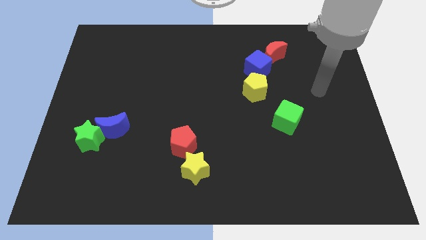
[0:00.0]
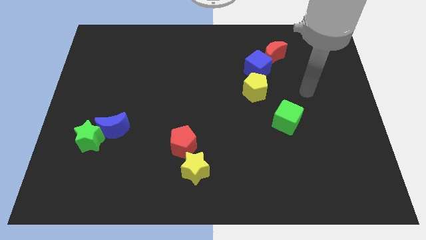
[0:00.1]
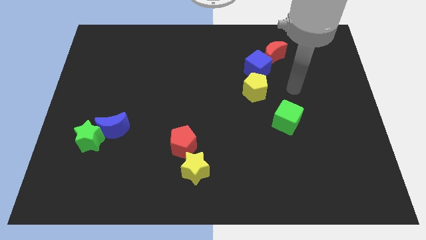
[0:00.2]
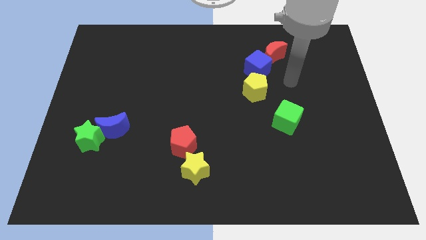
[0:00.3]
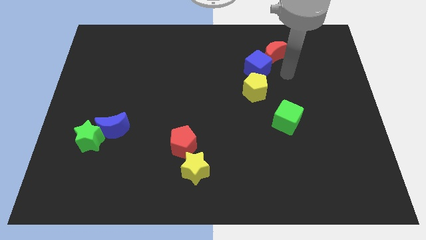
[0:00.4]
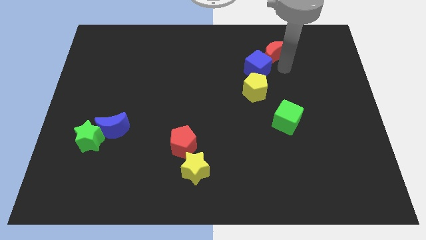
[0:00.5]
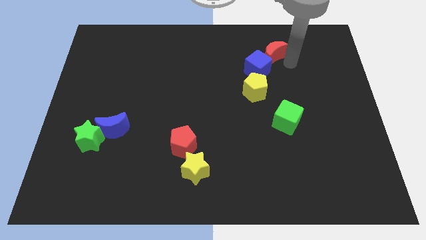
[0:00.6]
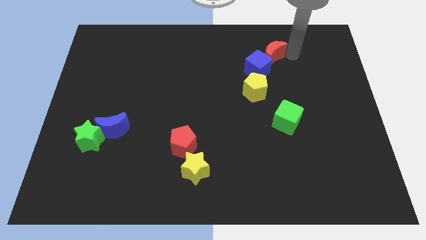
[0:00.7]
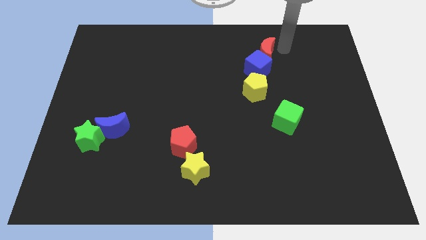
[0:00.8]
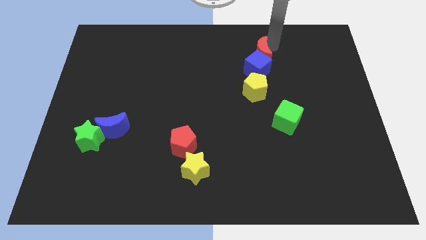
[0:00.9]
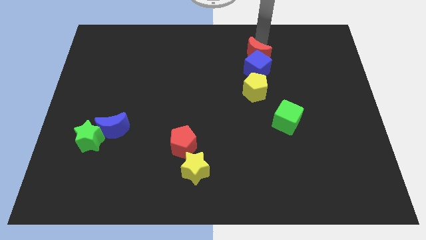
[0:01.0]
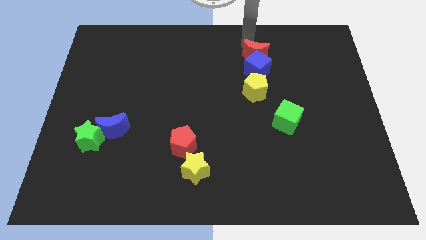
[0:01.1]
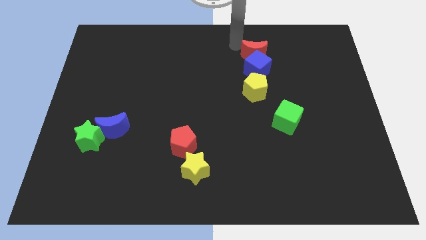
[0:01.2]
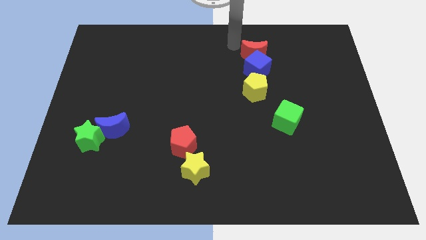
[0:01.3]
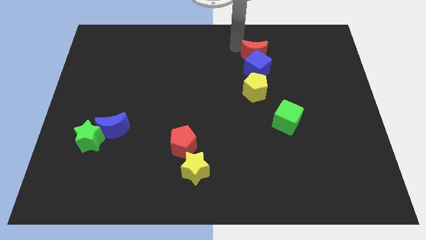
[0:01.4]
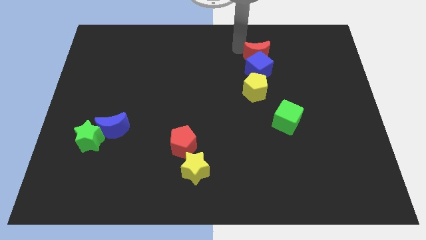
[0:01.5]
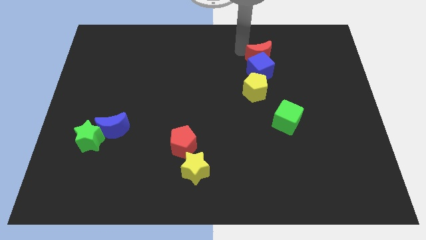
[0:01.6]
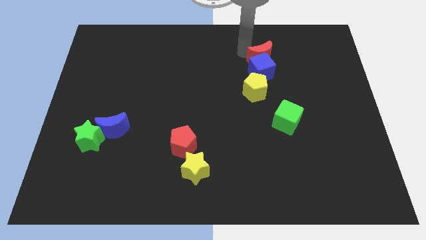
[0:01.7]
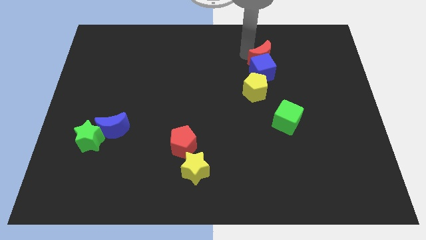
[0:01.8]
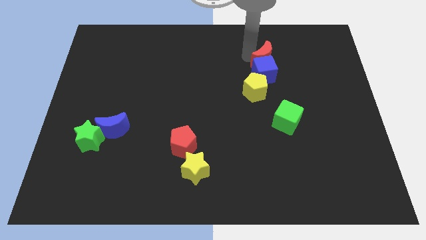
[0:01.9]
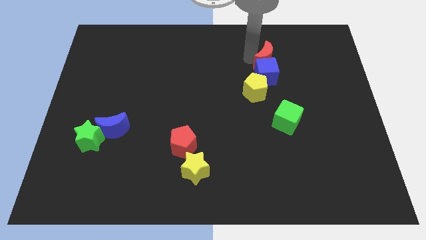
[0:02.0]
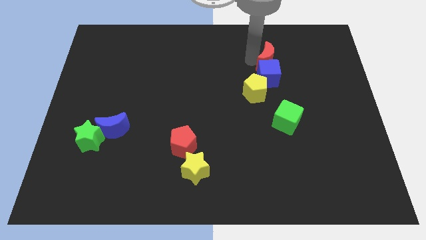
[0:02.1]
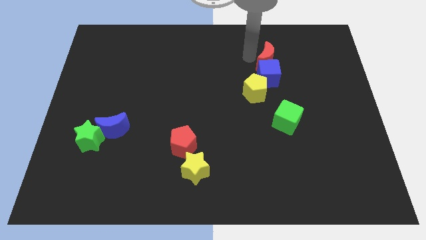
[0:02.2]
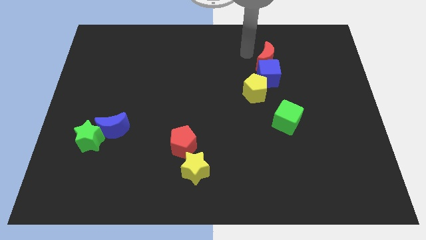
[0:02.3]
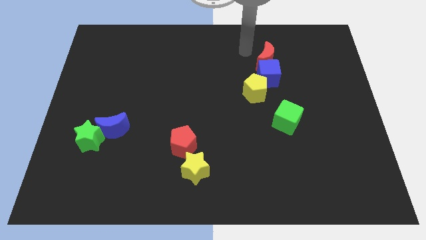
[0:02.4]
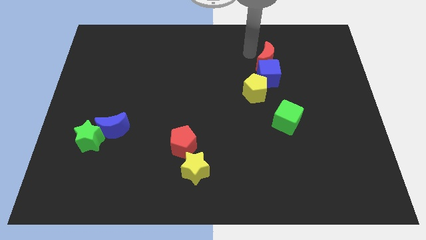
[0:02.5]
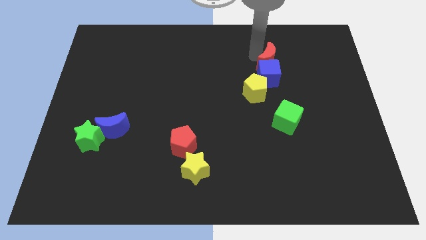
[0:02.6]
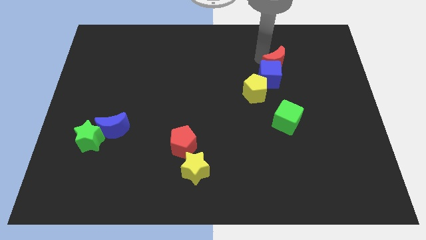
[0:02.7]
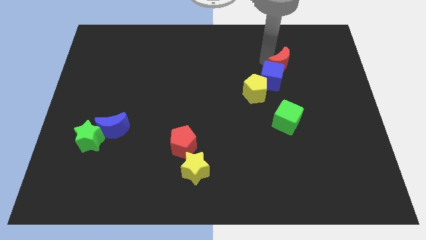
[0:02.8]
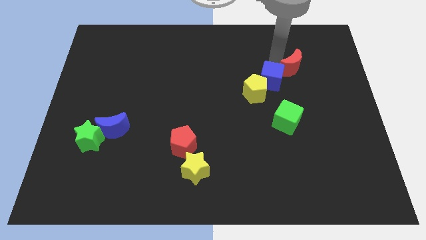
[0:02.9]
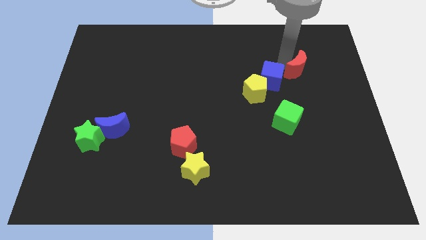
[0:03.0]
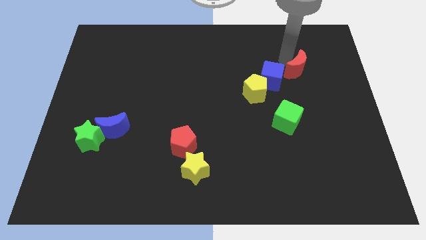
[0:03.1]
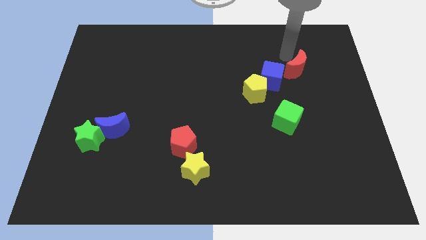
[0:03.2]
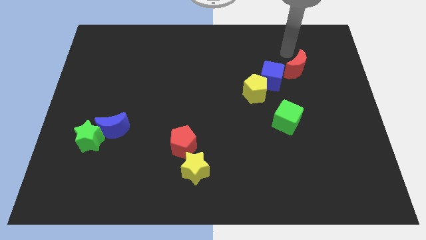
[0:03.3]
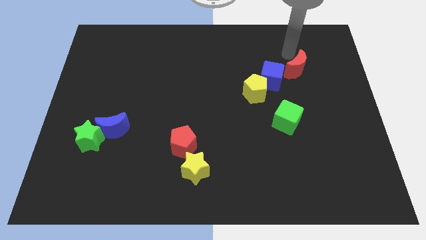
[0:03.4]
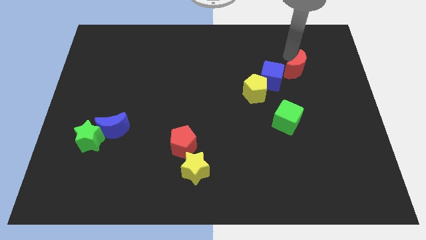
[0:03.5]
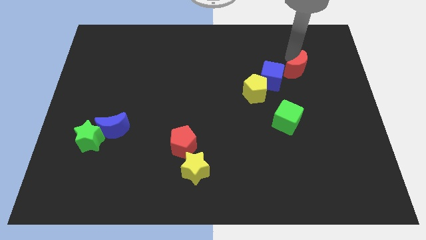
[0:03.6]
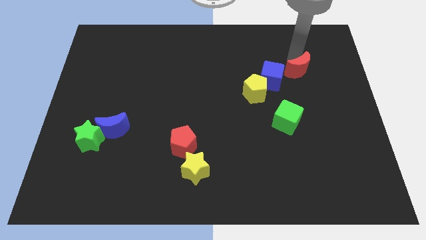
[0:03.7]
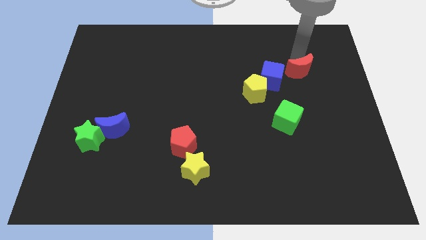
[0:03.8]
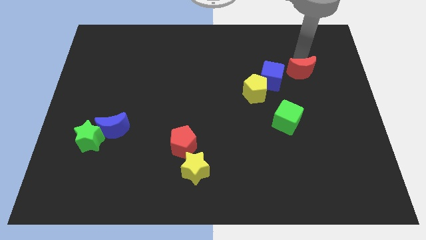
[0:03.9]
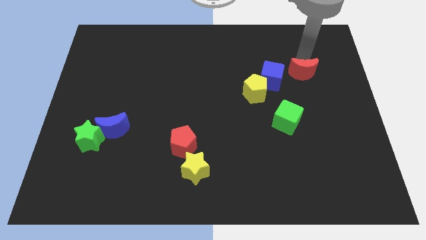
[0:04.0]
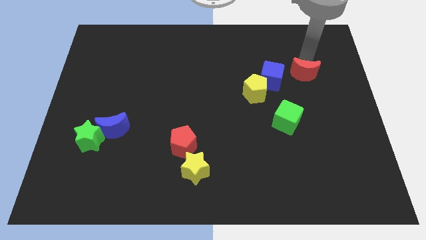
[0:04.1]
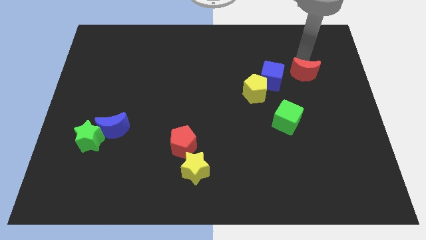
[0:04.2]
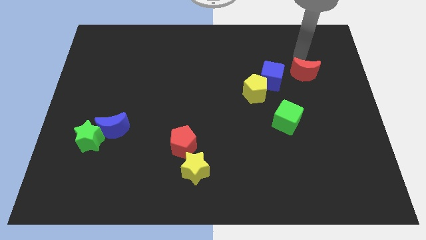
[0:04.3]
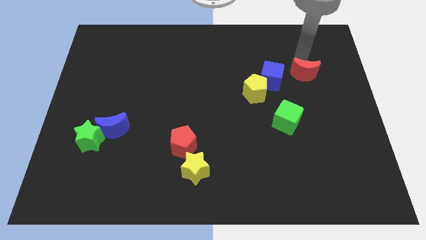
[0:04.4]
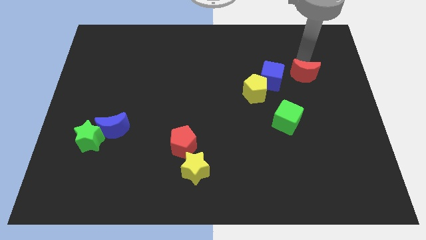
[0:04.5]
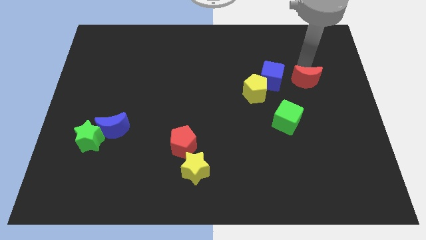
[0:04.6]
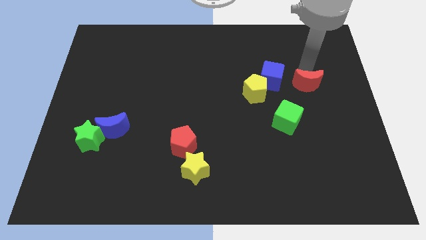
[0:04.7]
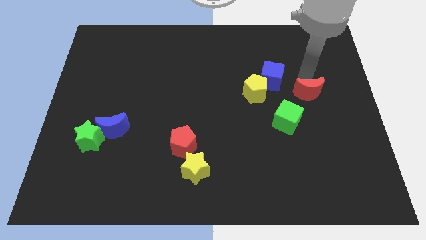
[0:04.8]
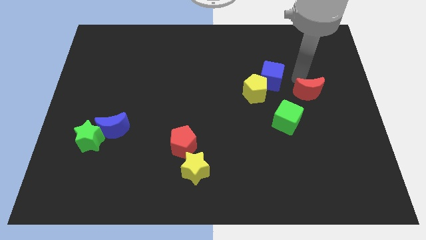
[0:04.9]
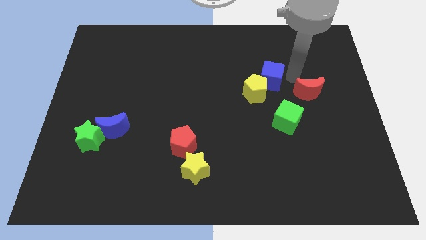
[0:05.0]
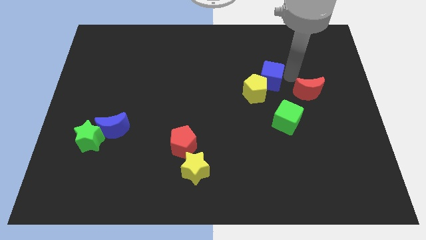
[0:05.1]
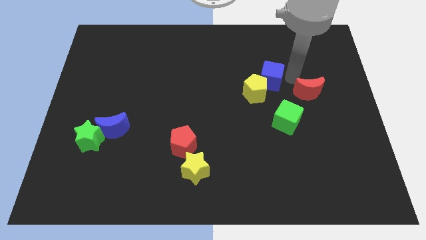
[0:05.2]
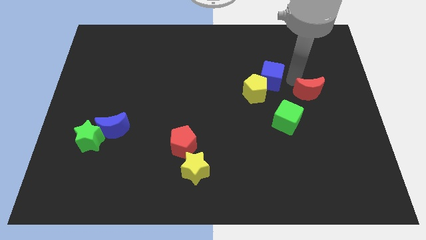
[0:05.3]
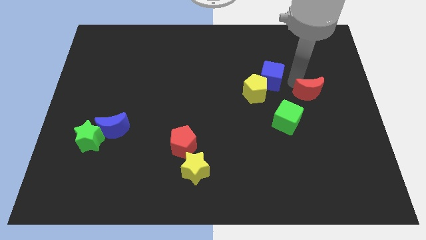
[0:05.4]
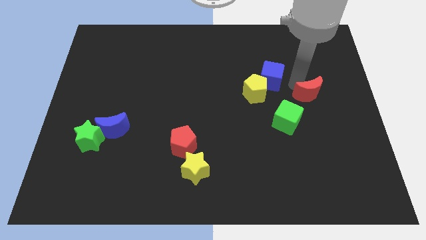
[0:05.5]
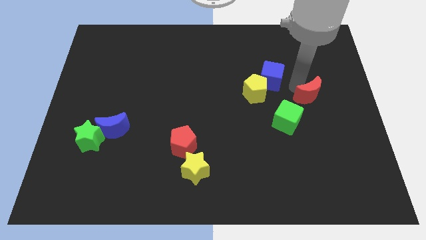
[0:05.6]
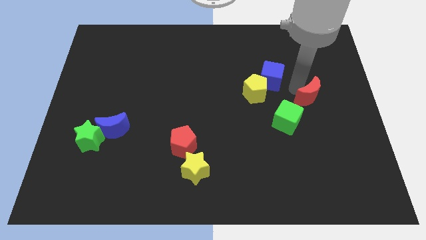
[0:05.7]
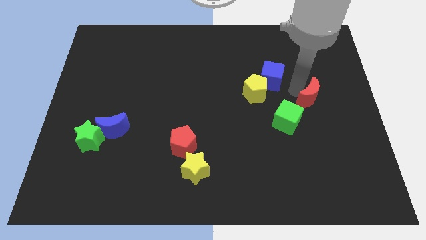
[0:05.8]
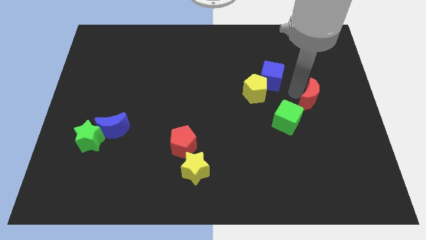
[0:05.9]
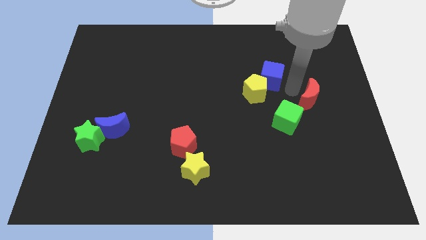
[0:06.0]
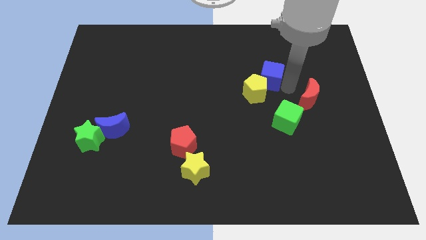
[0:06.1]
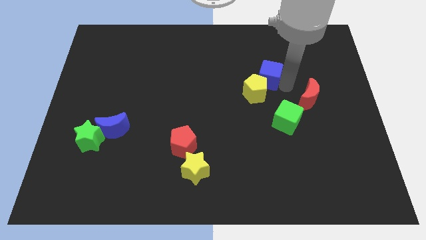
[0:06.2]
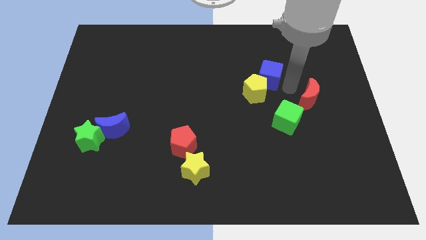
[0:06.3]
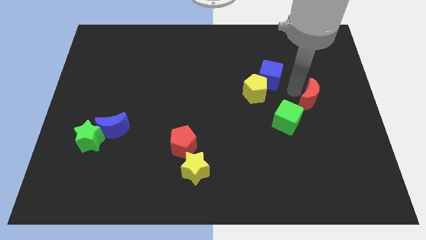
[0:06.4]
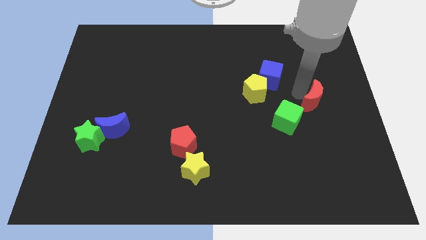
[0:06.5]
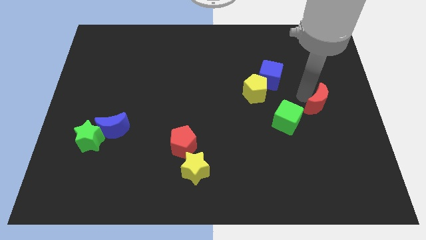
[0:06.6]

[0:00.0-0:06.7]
push the red moon to the right of the green cube

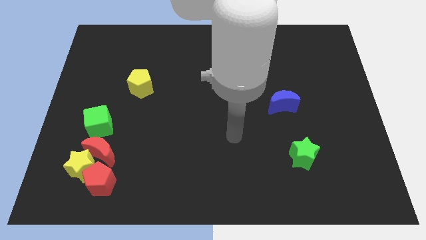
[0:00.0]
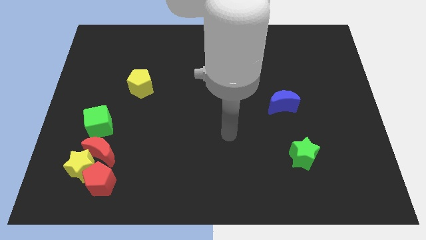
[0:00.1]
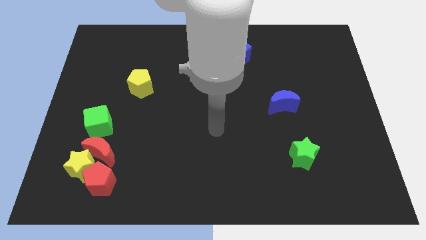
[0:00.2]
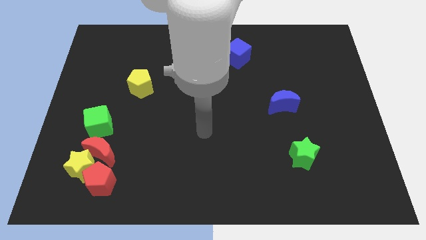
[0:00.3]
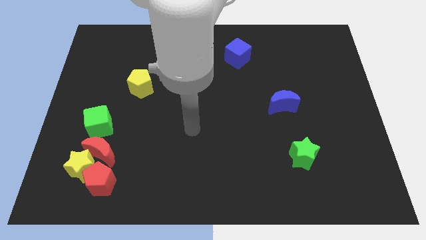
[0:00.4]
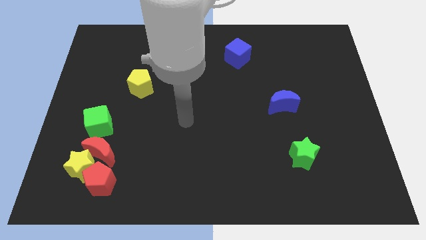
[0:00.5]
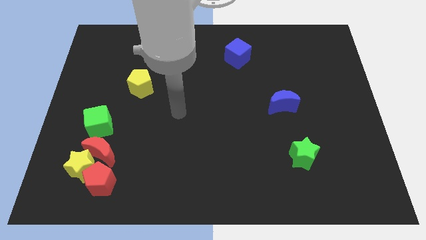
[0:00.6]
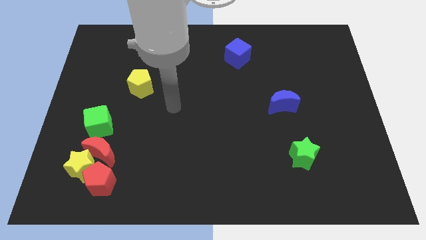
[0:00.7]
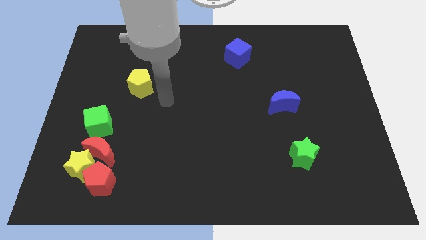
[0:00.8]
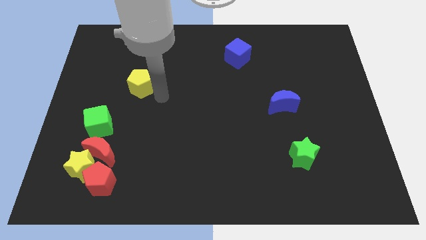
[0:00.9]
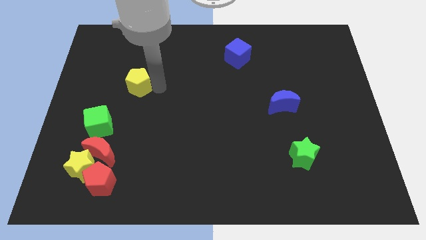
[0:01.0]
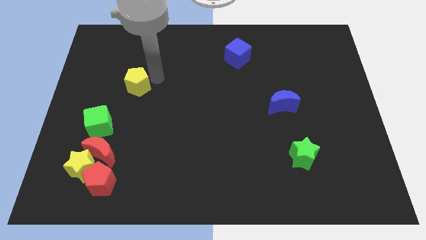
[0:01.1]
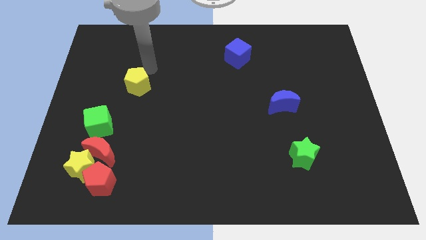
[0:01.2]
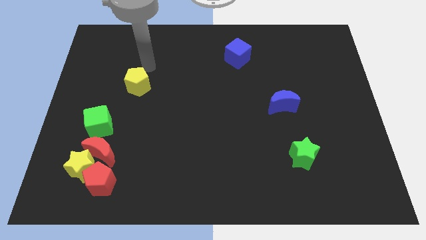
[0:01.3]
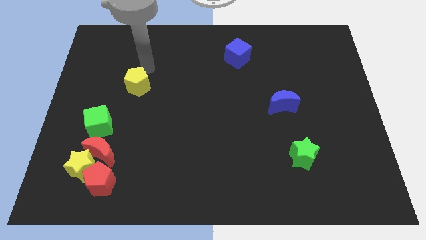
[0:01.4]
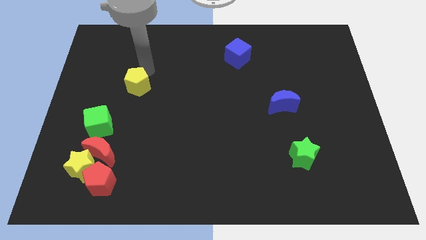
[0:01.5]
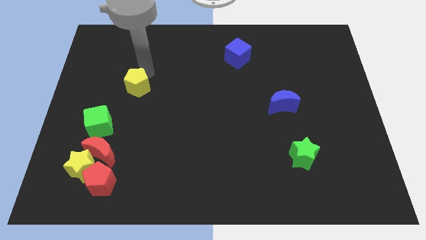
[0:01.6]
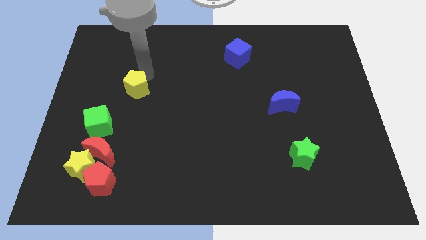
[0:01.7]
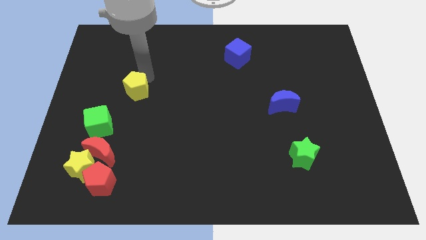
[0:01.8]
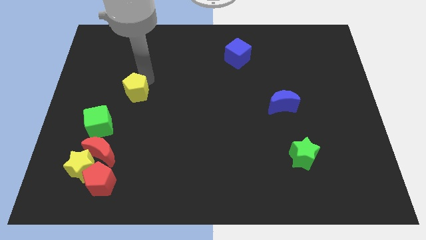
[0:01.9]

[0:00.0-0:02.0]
push the yellow pentagon to the top right of the green cube
